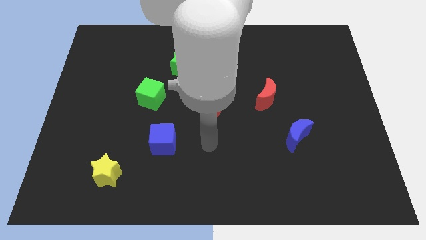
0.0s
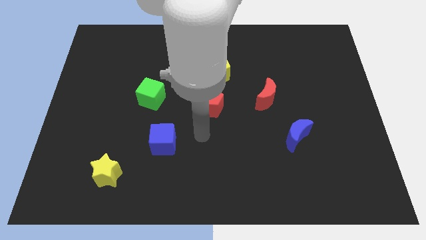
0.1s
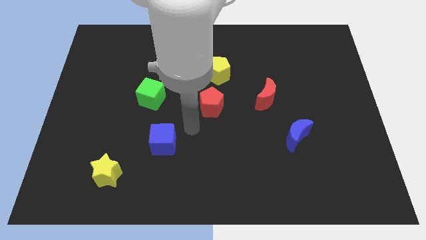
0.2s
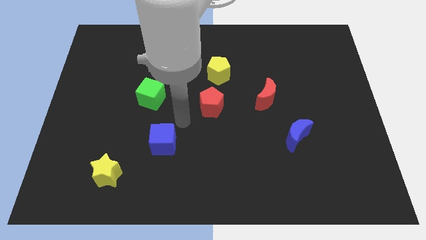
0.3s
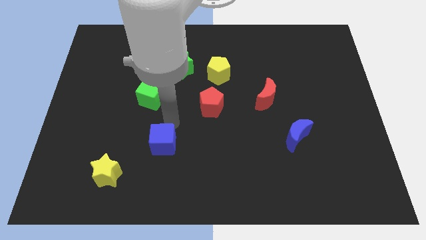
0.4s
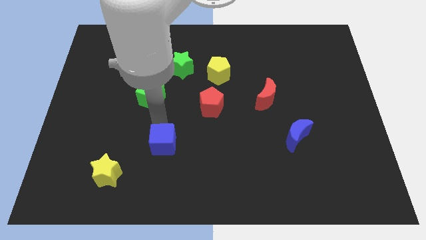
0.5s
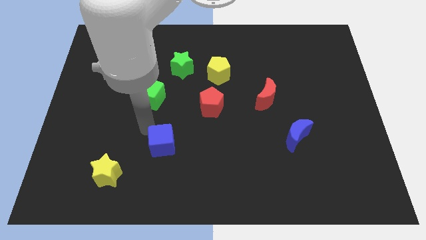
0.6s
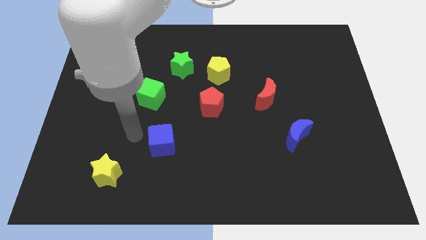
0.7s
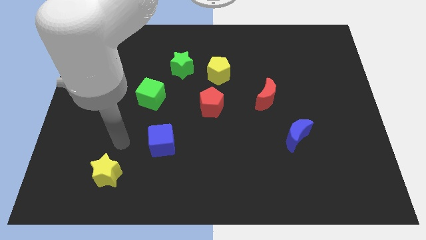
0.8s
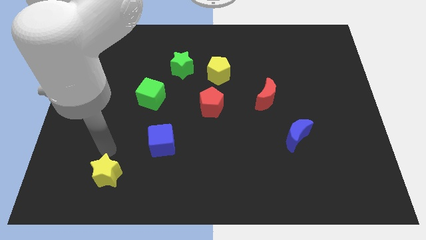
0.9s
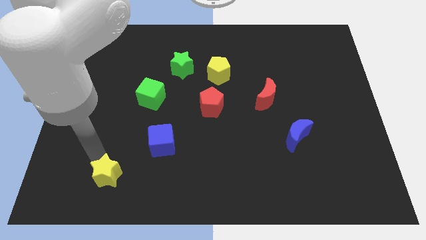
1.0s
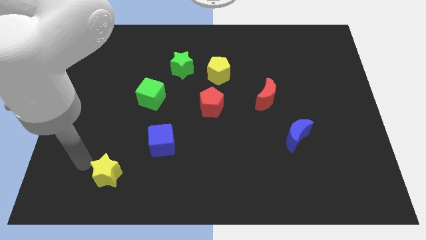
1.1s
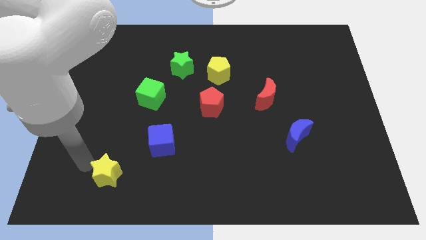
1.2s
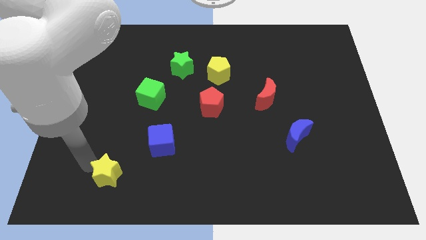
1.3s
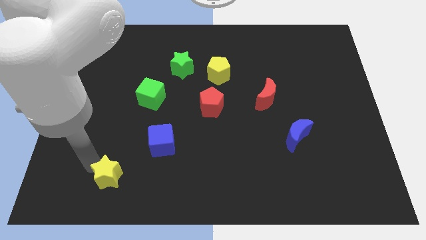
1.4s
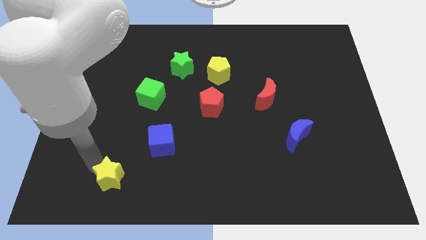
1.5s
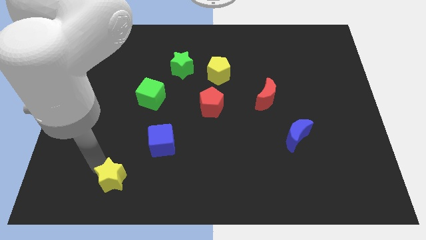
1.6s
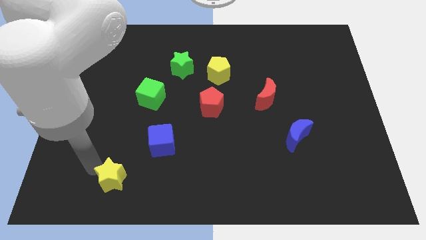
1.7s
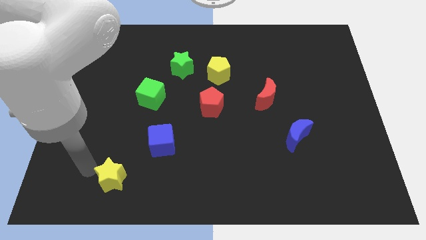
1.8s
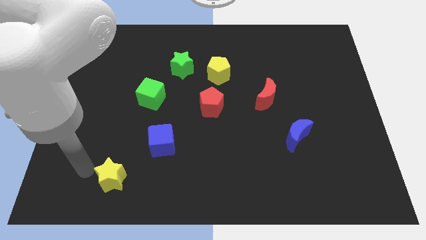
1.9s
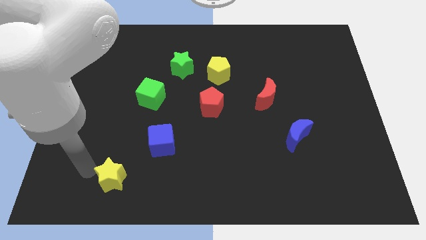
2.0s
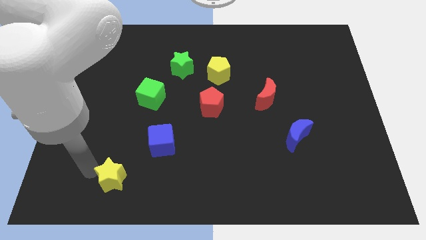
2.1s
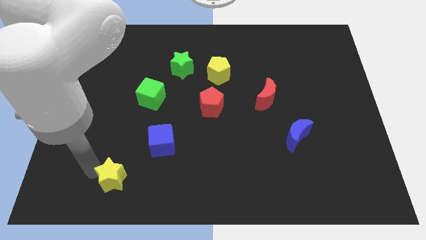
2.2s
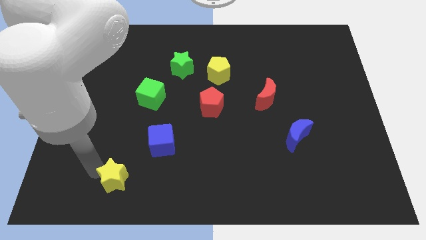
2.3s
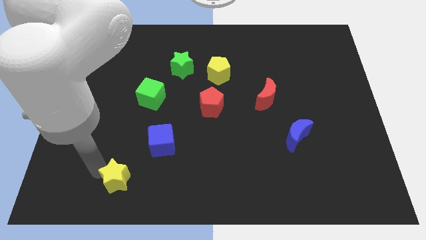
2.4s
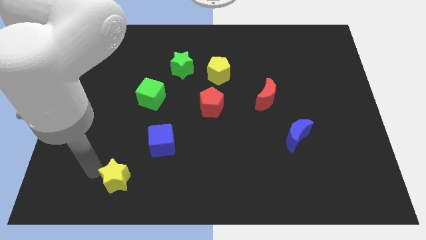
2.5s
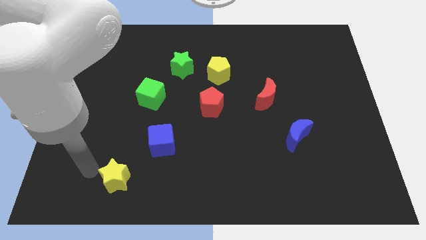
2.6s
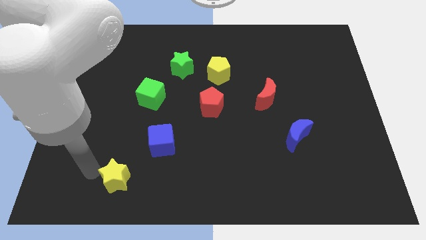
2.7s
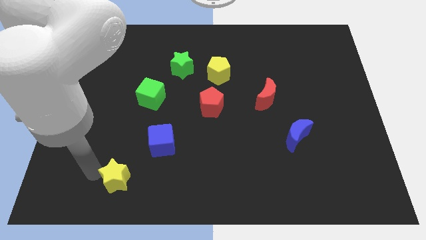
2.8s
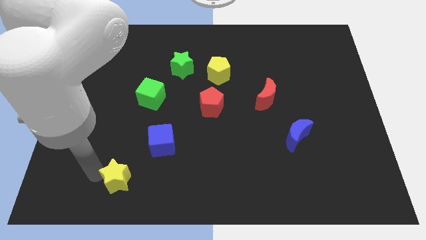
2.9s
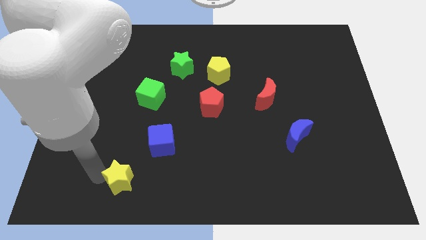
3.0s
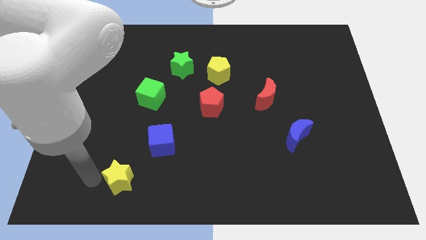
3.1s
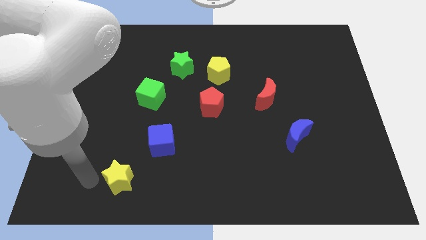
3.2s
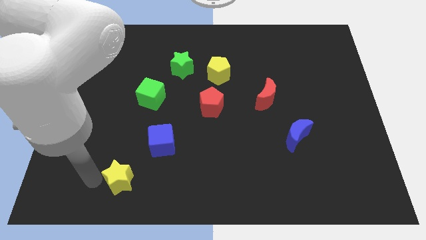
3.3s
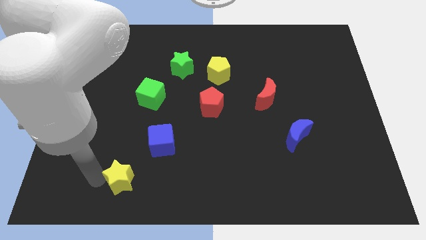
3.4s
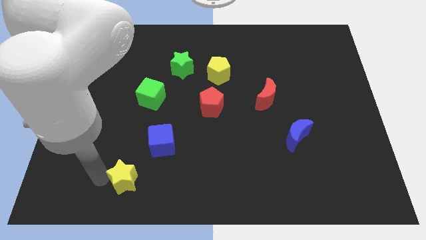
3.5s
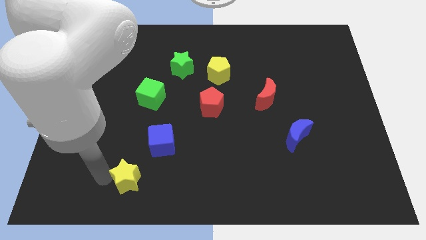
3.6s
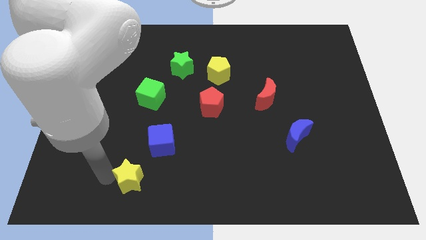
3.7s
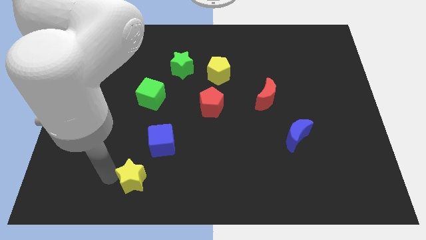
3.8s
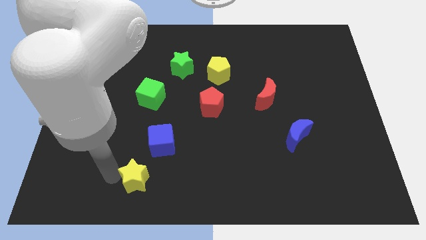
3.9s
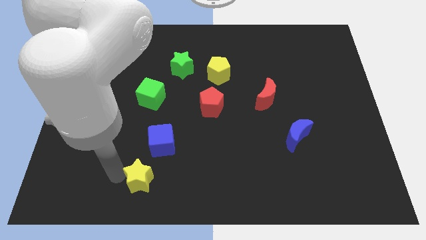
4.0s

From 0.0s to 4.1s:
push the yellow star right a bit

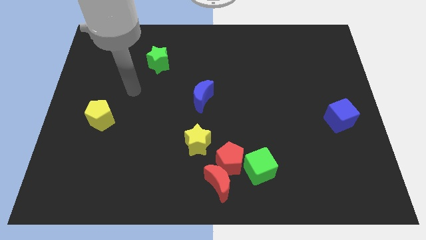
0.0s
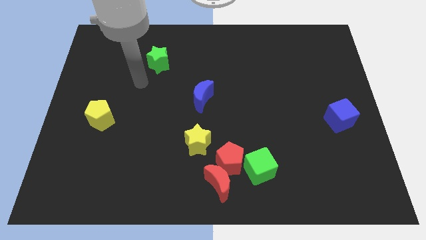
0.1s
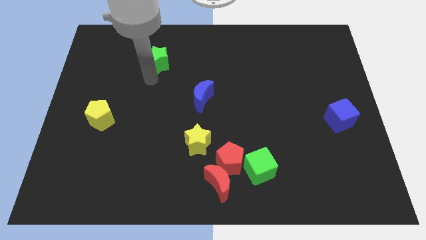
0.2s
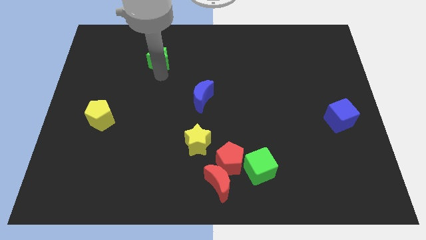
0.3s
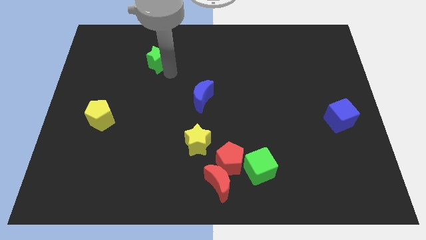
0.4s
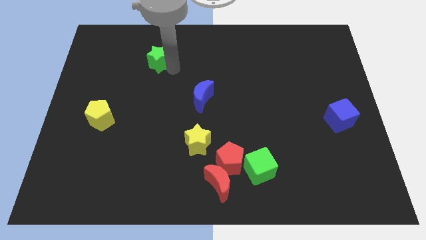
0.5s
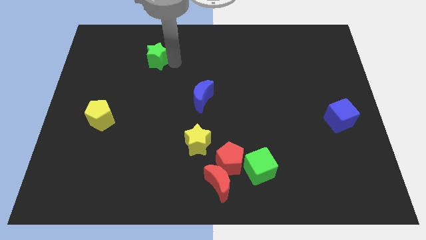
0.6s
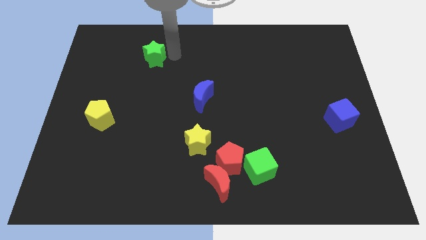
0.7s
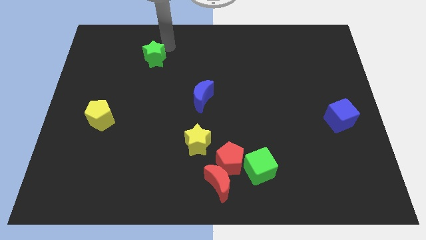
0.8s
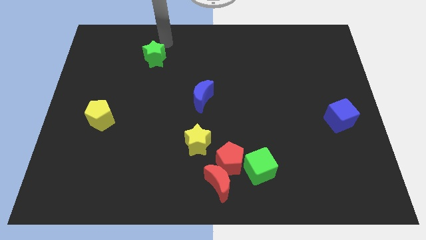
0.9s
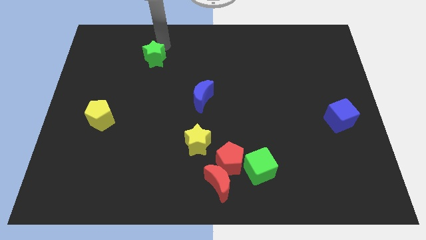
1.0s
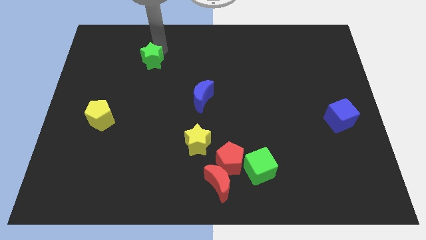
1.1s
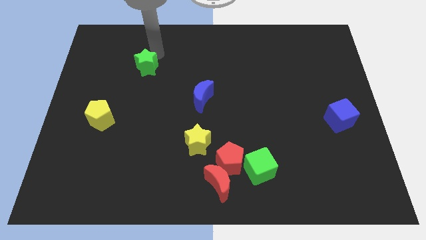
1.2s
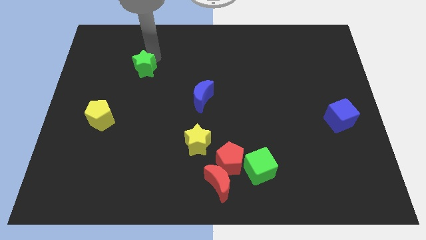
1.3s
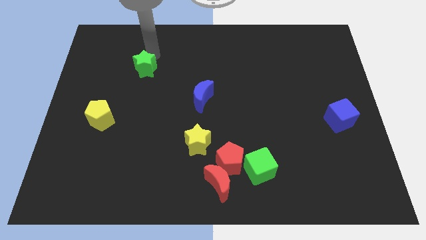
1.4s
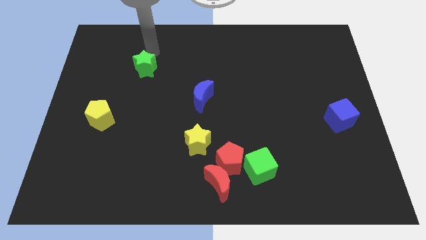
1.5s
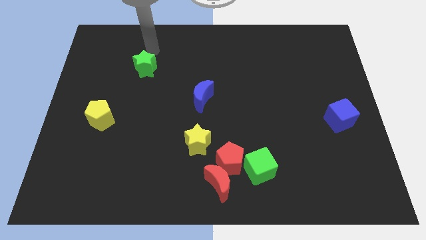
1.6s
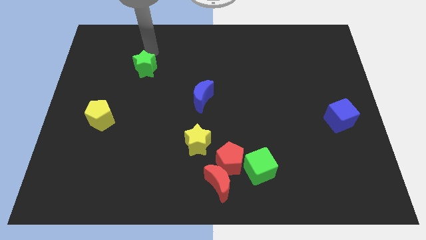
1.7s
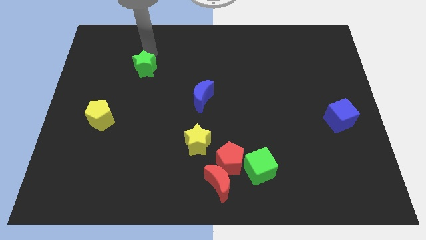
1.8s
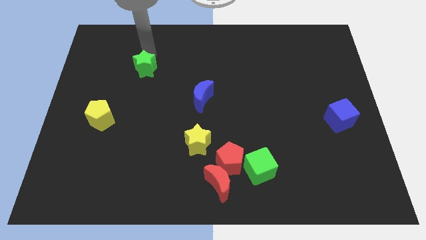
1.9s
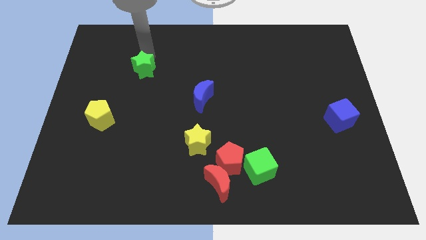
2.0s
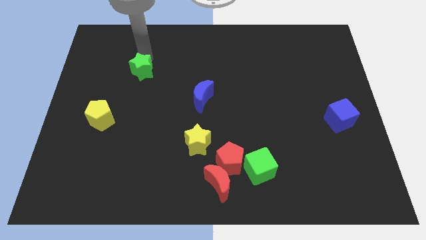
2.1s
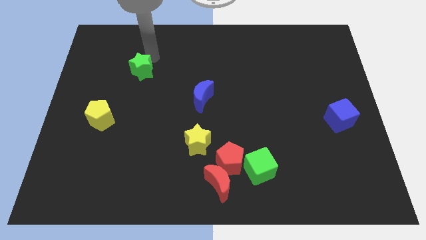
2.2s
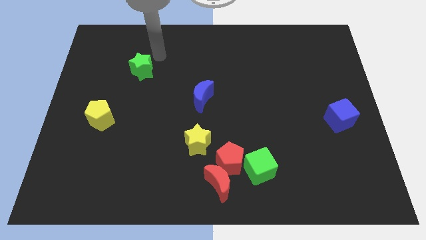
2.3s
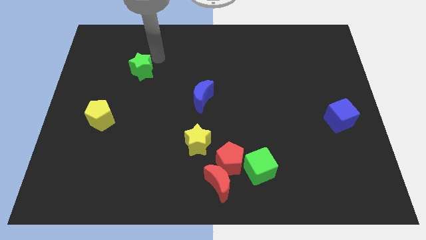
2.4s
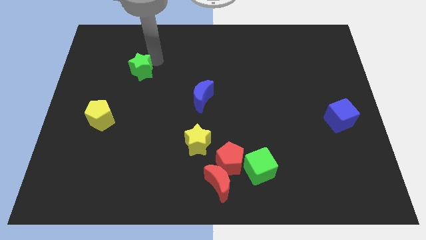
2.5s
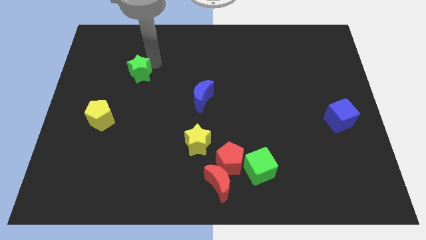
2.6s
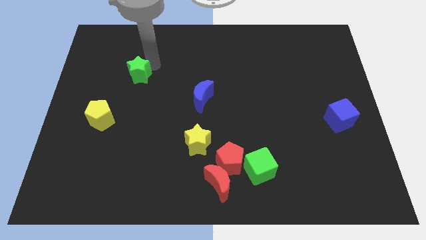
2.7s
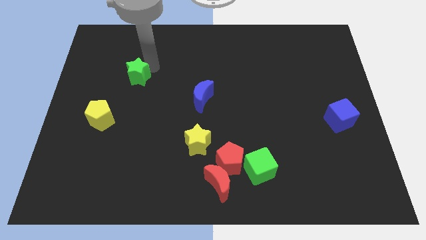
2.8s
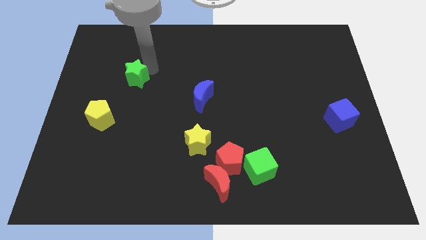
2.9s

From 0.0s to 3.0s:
slide the green star a little downwards and then to the left

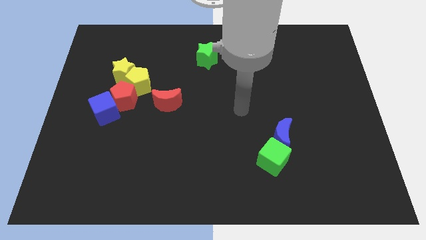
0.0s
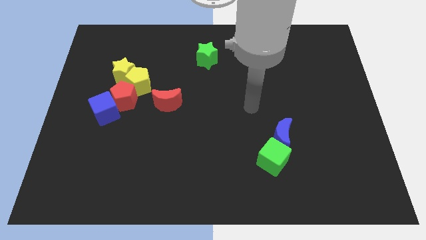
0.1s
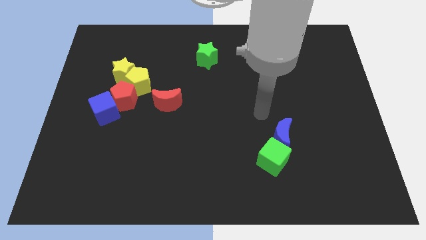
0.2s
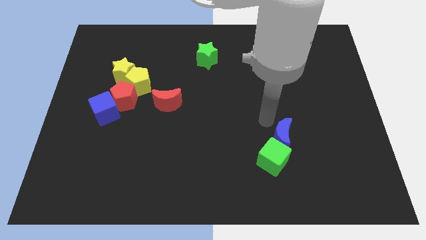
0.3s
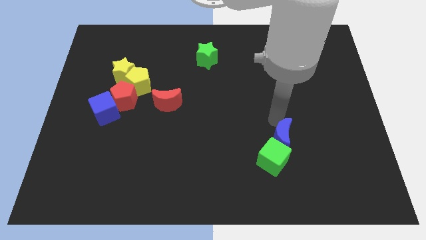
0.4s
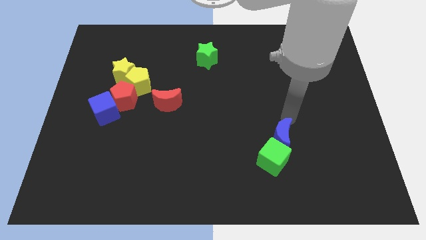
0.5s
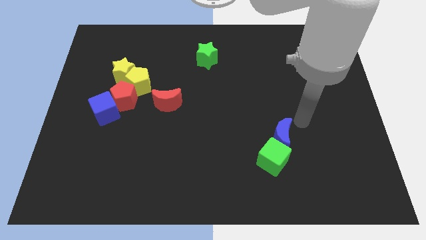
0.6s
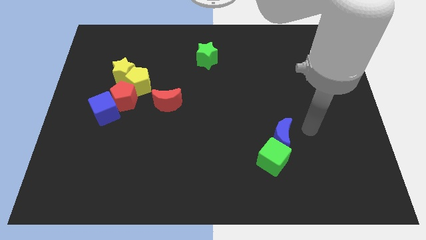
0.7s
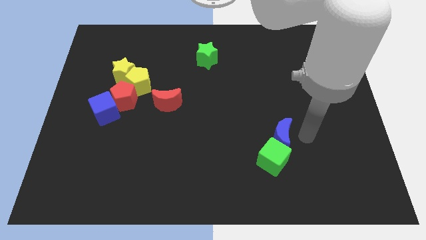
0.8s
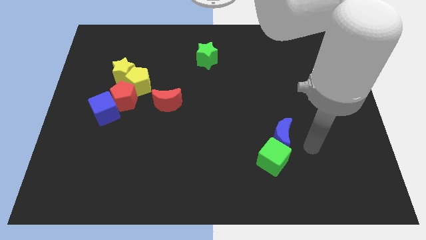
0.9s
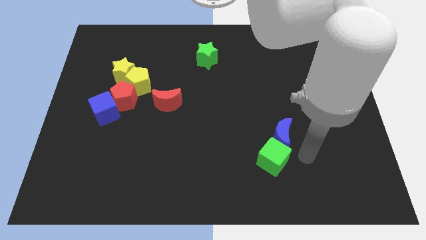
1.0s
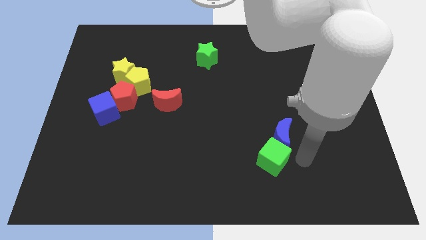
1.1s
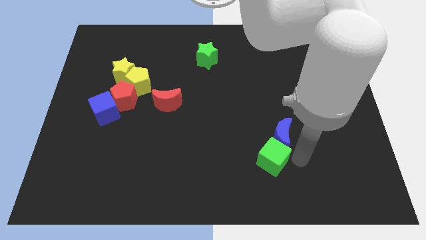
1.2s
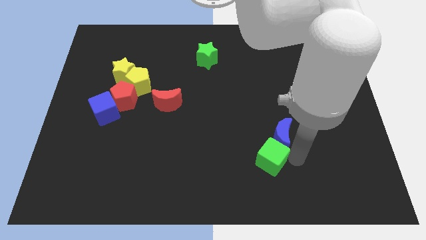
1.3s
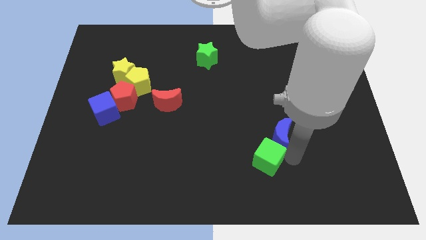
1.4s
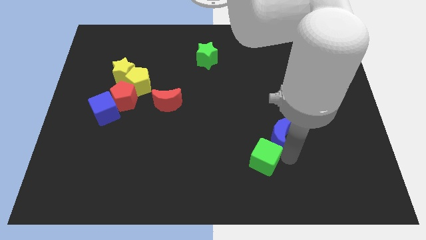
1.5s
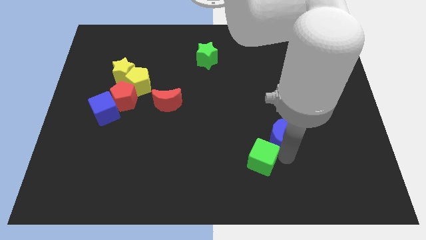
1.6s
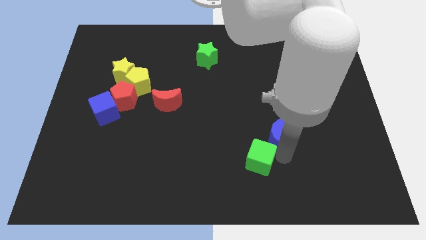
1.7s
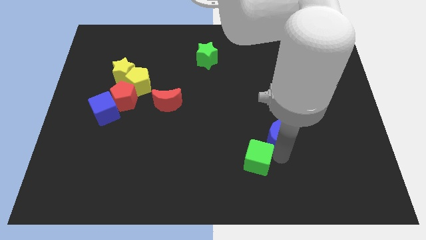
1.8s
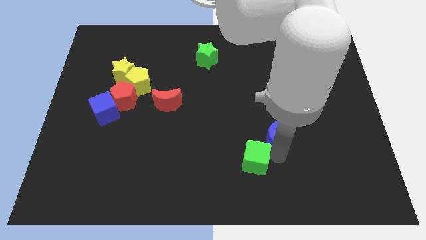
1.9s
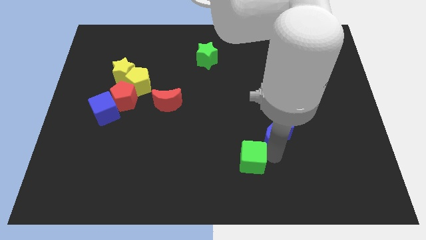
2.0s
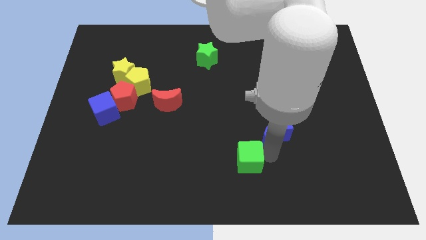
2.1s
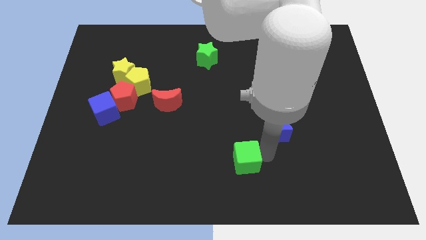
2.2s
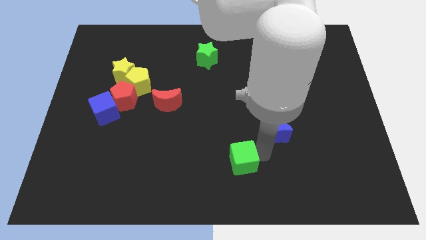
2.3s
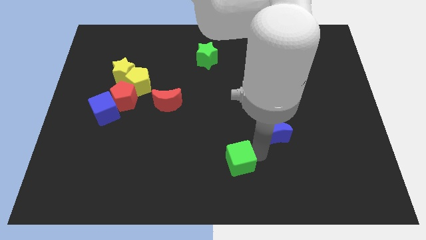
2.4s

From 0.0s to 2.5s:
slightly push the green cube left
